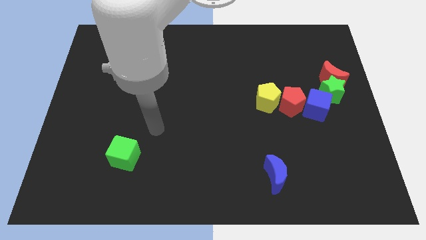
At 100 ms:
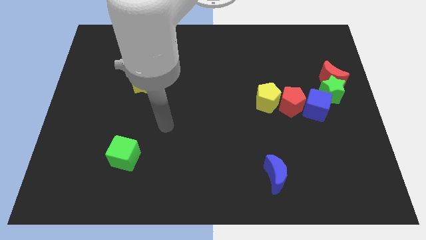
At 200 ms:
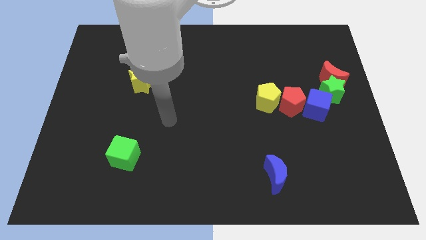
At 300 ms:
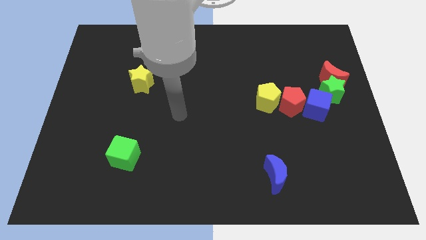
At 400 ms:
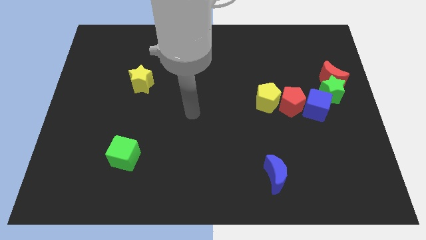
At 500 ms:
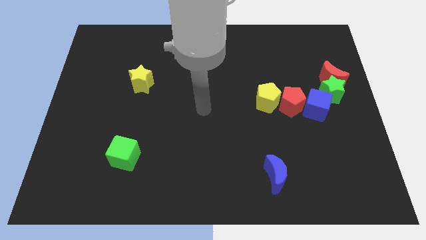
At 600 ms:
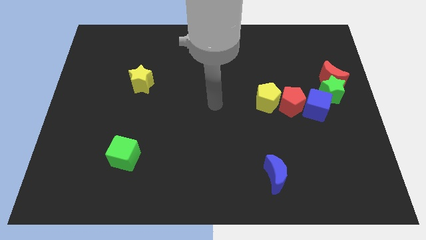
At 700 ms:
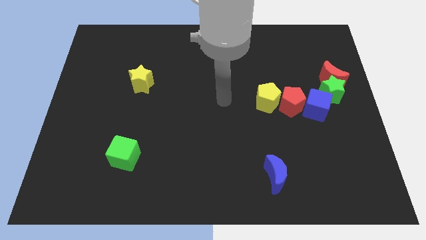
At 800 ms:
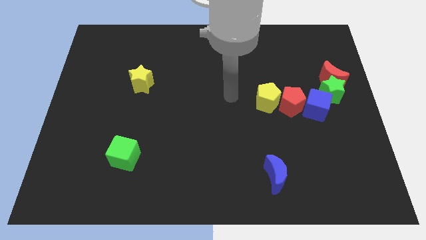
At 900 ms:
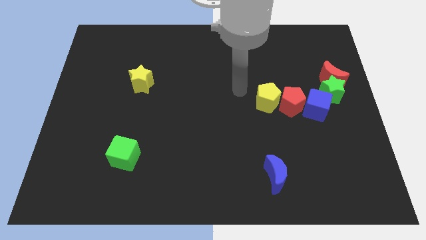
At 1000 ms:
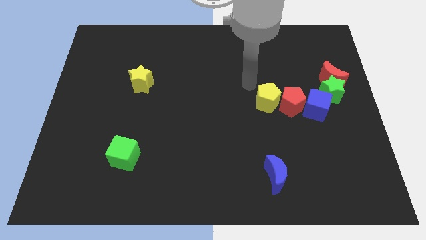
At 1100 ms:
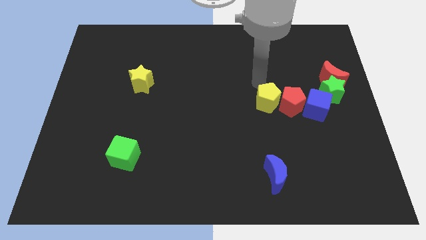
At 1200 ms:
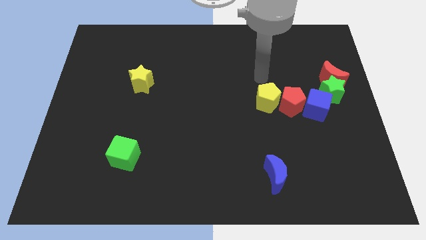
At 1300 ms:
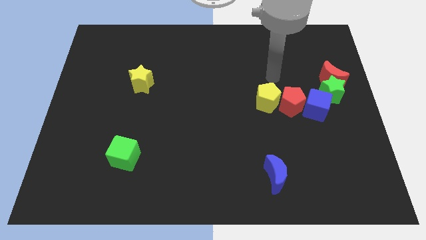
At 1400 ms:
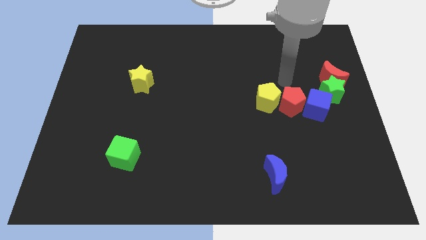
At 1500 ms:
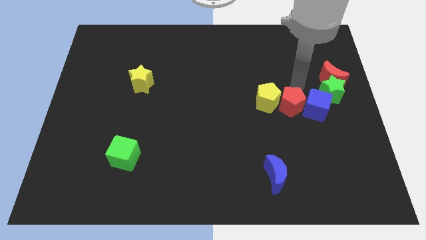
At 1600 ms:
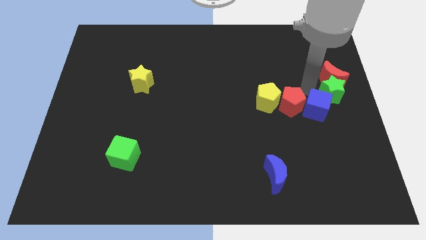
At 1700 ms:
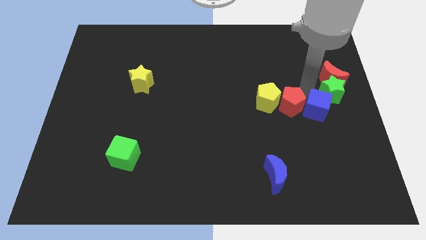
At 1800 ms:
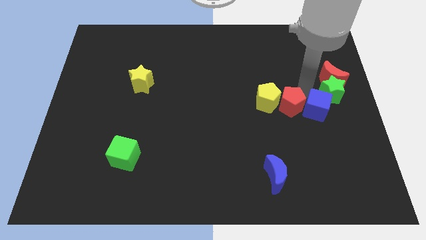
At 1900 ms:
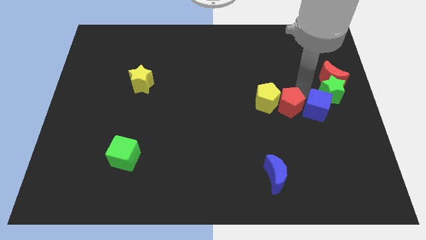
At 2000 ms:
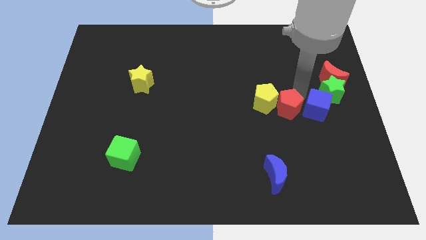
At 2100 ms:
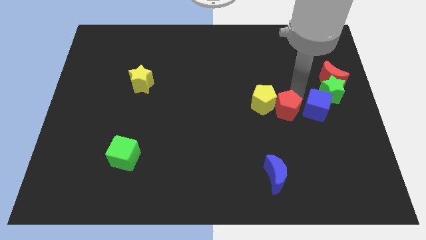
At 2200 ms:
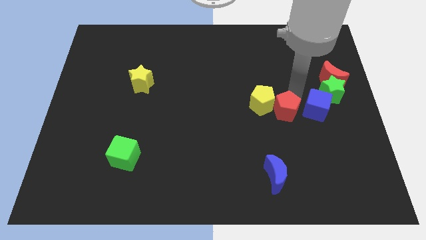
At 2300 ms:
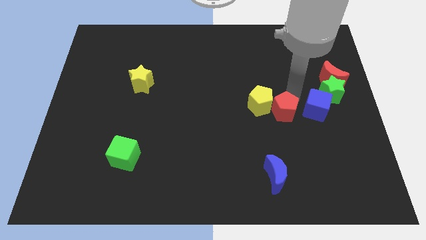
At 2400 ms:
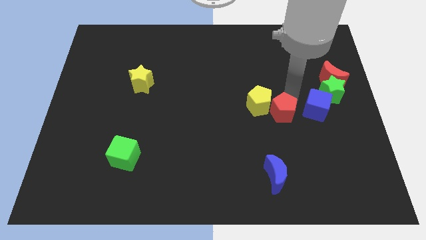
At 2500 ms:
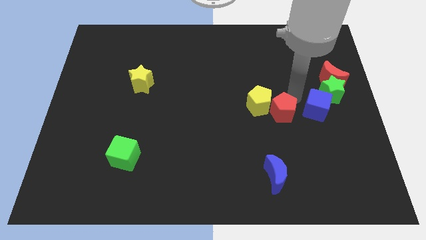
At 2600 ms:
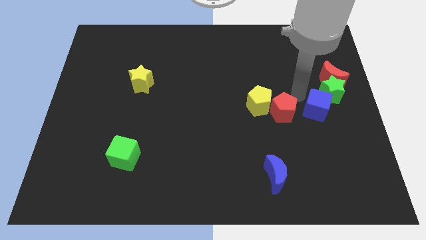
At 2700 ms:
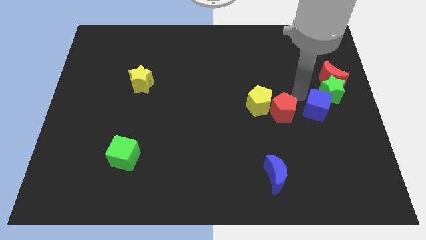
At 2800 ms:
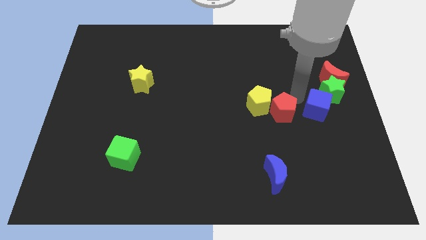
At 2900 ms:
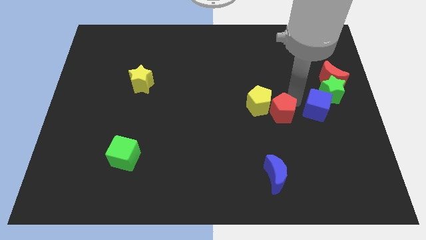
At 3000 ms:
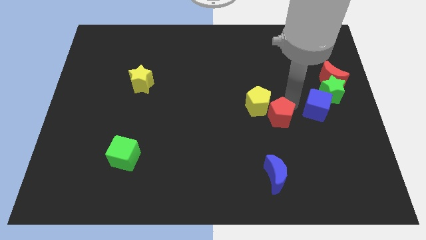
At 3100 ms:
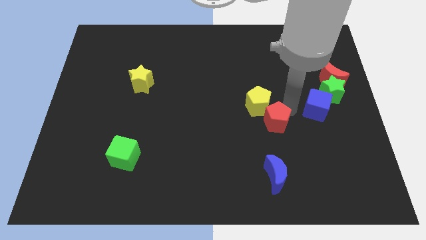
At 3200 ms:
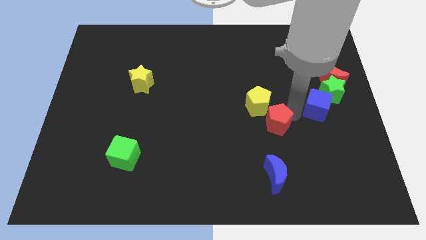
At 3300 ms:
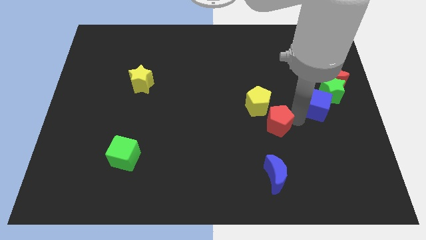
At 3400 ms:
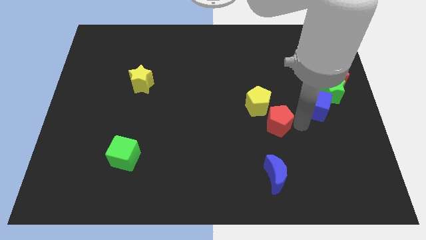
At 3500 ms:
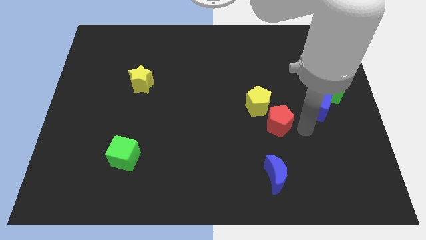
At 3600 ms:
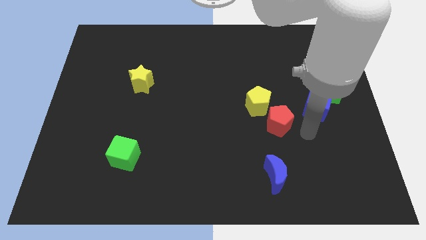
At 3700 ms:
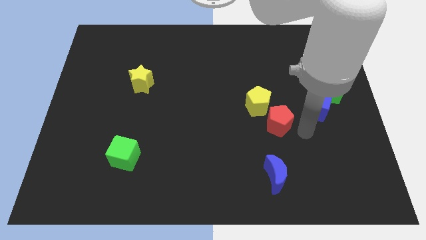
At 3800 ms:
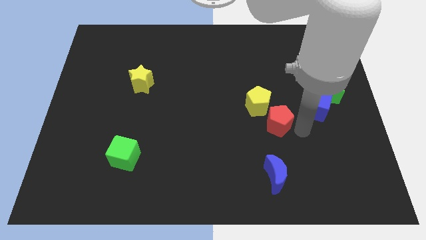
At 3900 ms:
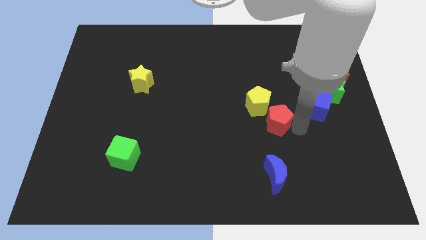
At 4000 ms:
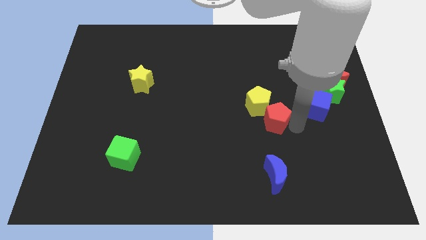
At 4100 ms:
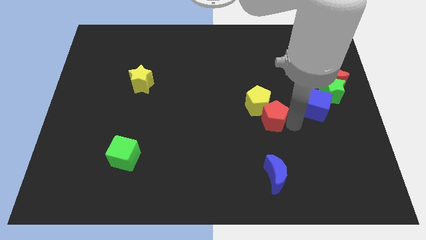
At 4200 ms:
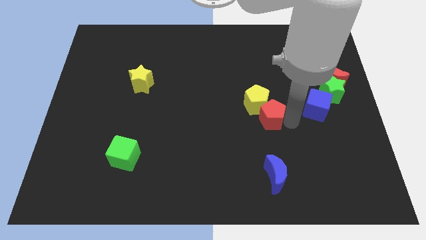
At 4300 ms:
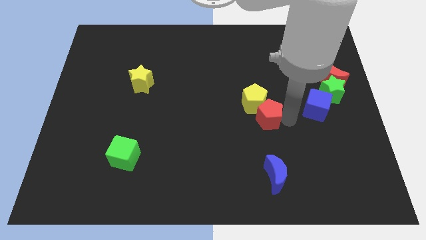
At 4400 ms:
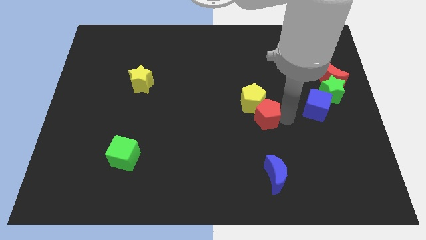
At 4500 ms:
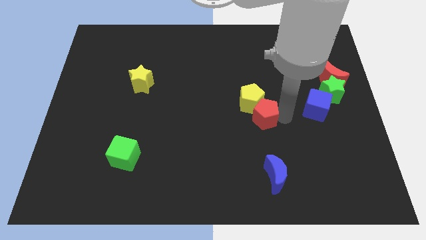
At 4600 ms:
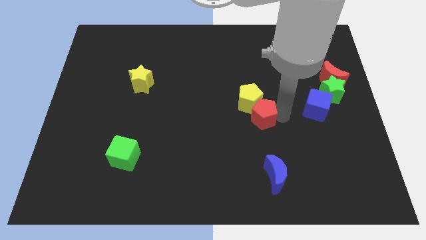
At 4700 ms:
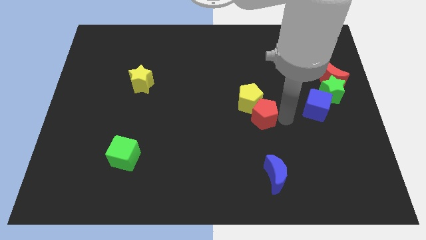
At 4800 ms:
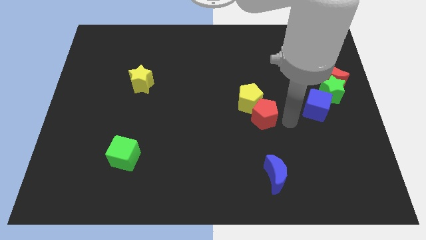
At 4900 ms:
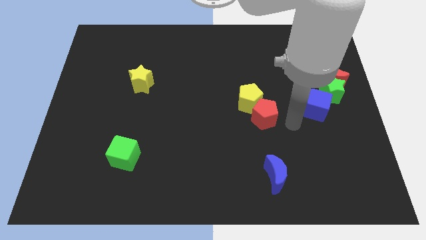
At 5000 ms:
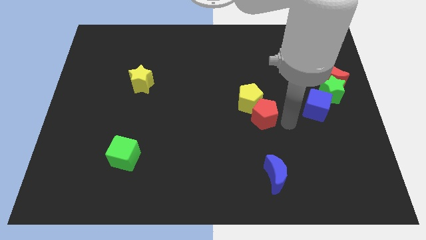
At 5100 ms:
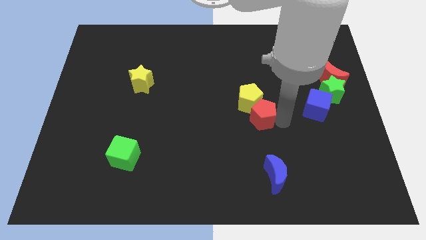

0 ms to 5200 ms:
slightly move the red pentagon to the left

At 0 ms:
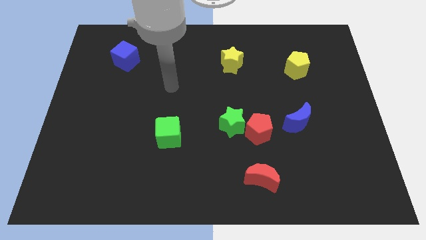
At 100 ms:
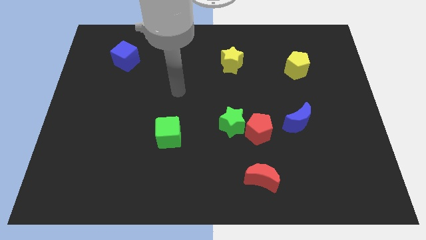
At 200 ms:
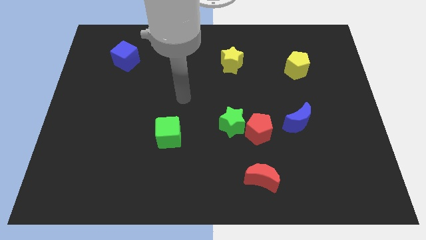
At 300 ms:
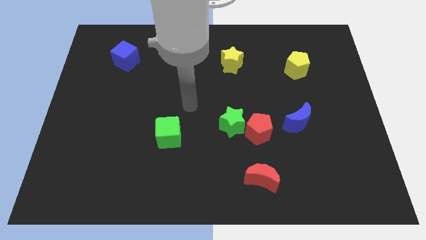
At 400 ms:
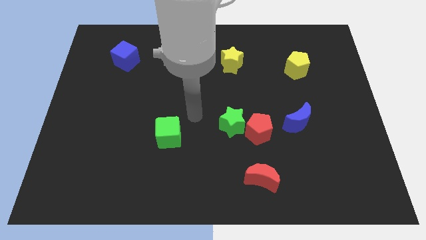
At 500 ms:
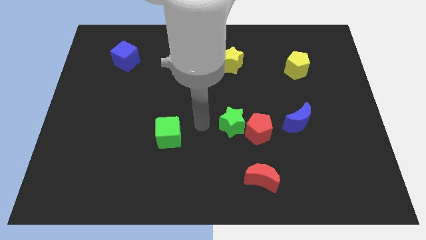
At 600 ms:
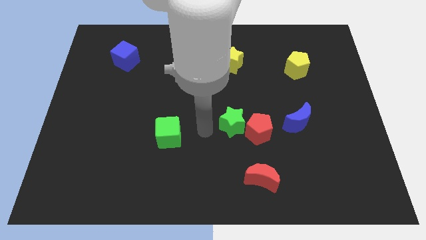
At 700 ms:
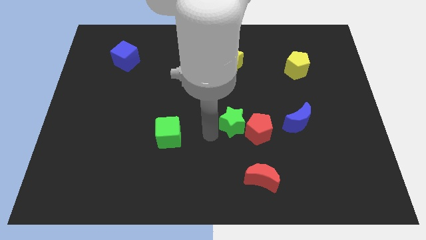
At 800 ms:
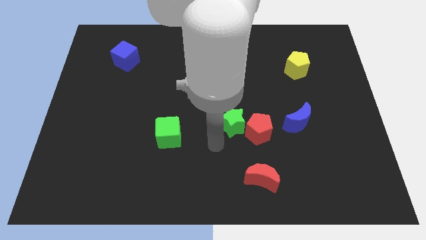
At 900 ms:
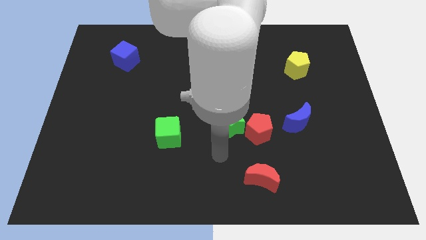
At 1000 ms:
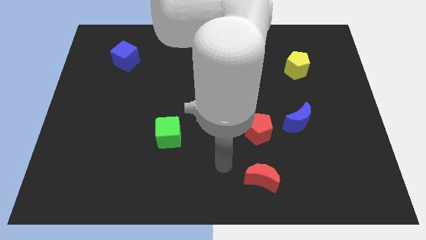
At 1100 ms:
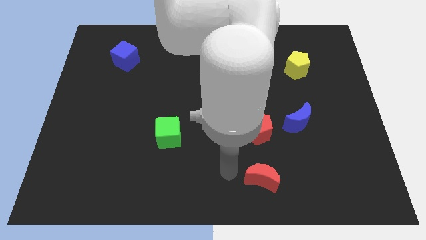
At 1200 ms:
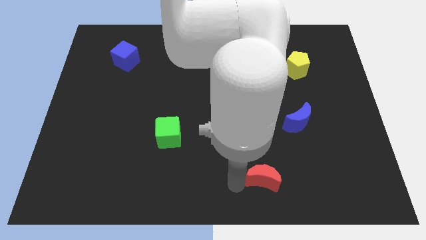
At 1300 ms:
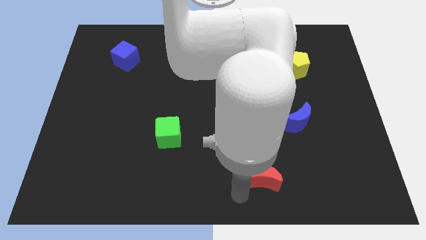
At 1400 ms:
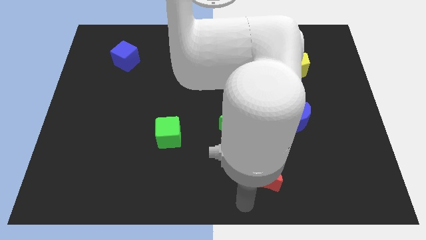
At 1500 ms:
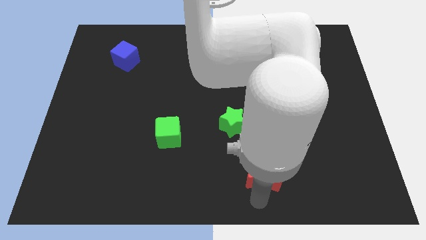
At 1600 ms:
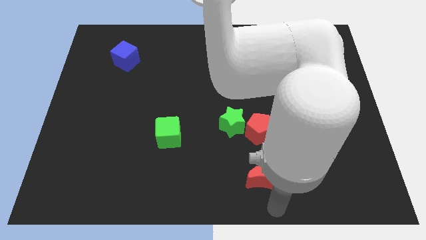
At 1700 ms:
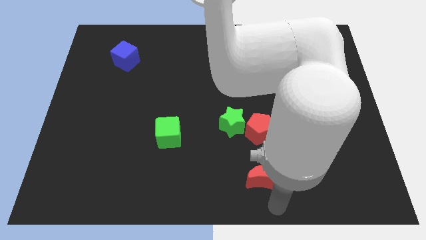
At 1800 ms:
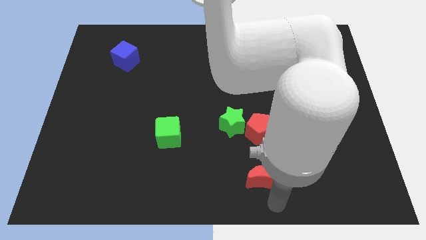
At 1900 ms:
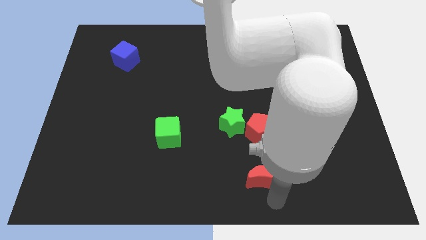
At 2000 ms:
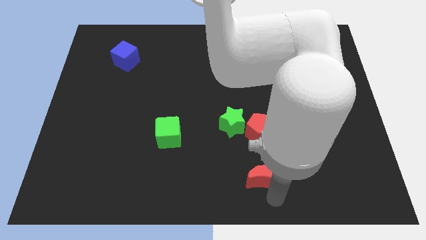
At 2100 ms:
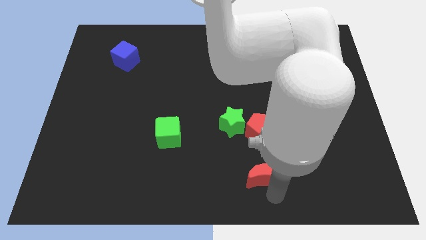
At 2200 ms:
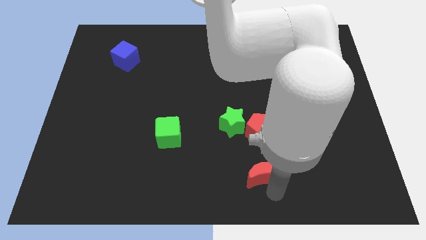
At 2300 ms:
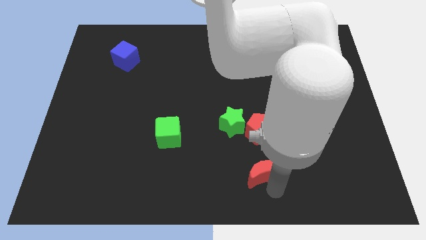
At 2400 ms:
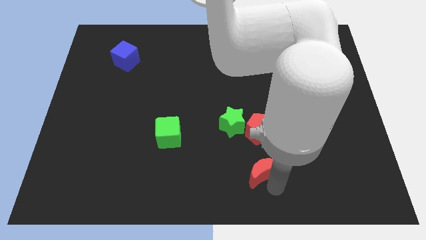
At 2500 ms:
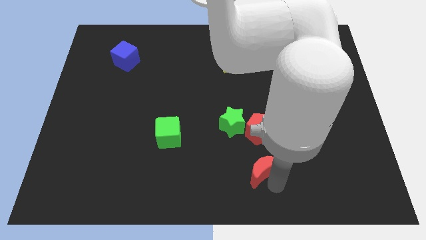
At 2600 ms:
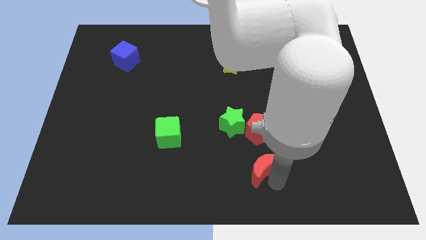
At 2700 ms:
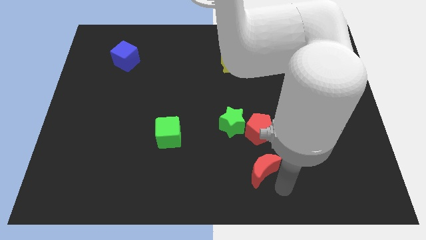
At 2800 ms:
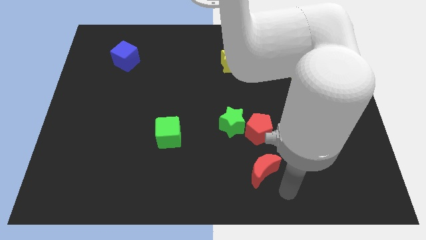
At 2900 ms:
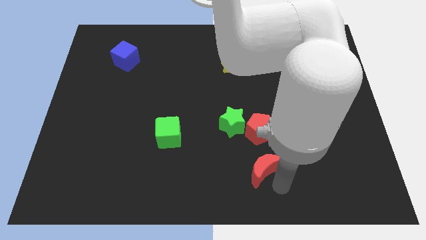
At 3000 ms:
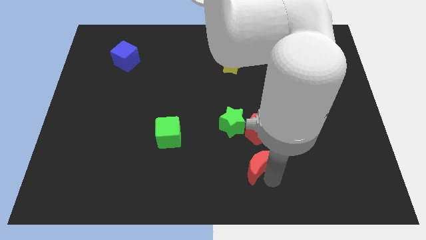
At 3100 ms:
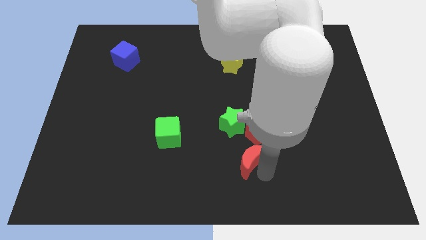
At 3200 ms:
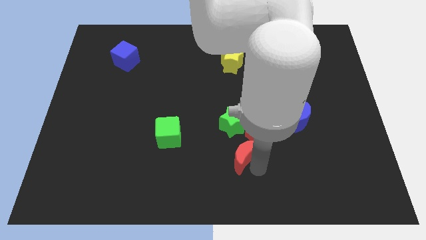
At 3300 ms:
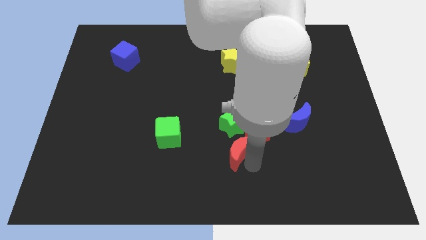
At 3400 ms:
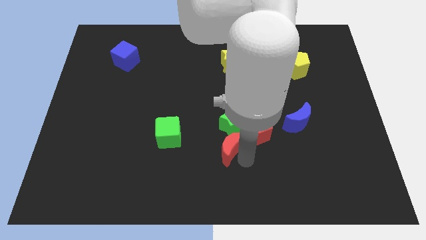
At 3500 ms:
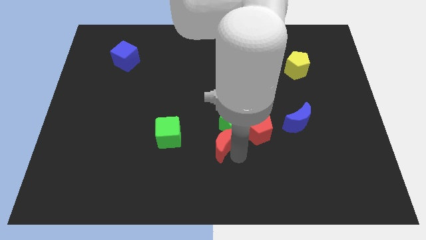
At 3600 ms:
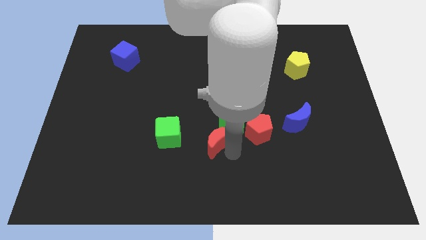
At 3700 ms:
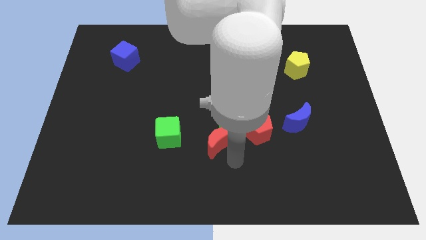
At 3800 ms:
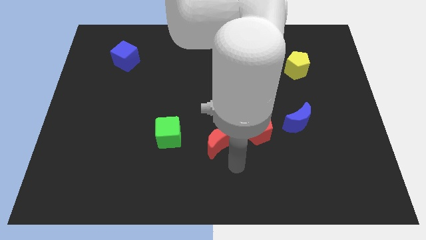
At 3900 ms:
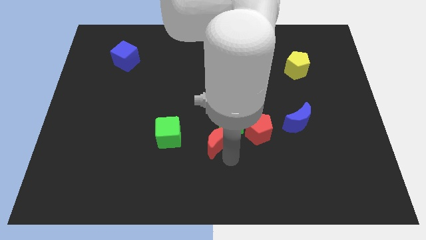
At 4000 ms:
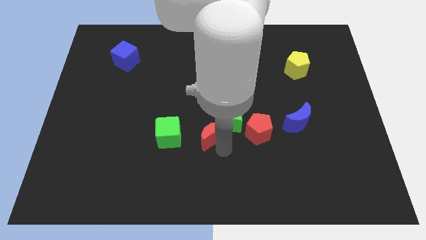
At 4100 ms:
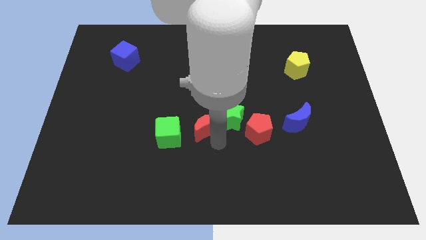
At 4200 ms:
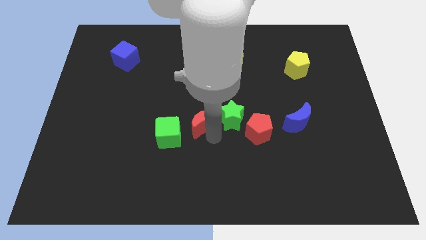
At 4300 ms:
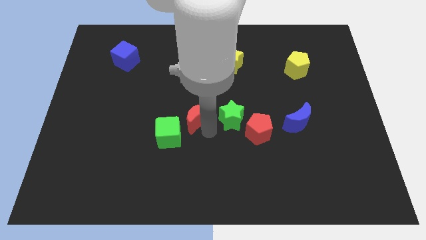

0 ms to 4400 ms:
slide the red moon diagonally upwards and to the left
